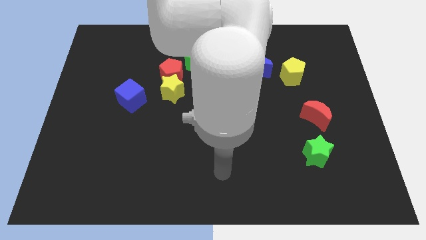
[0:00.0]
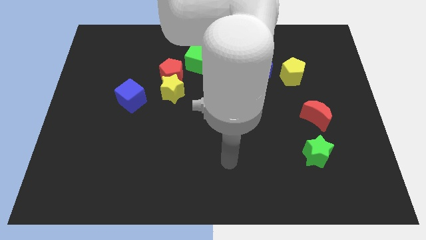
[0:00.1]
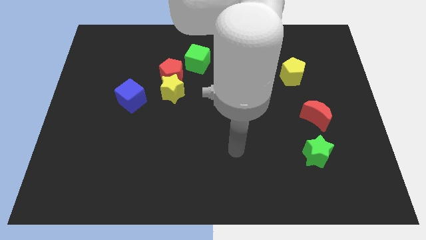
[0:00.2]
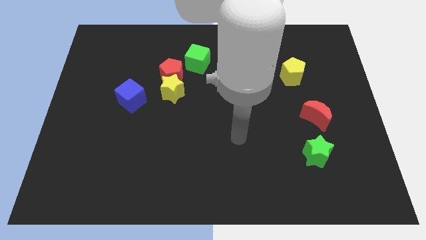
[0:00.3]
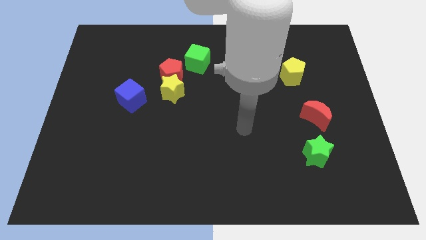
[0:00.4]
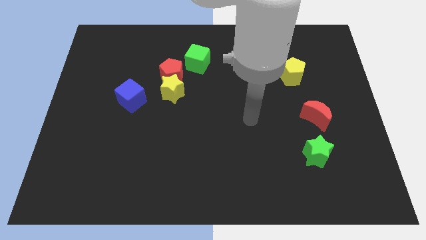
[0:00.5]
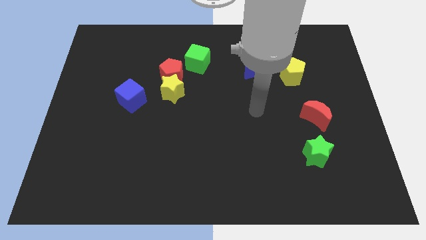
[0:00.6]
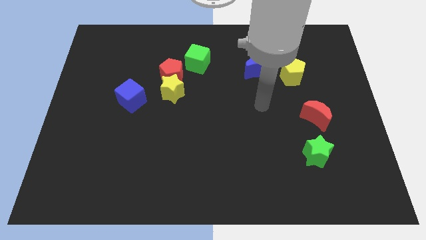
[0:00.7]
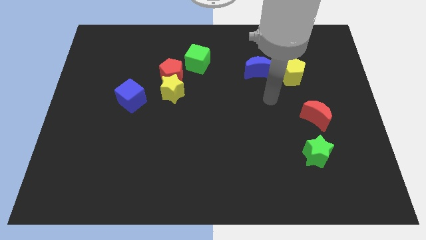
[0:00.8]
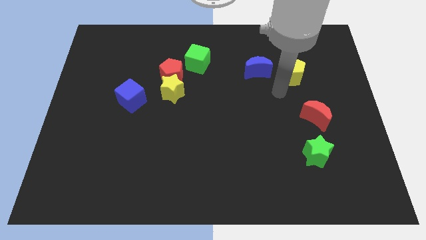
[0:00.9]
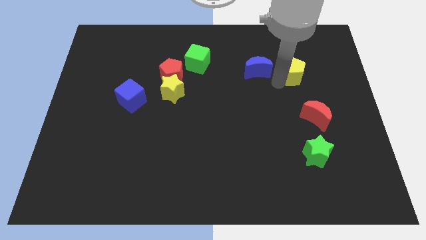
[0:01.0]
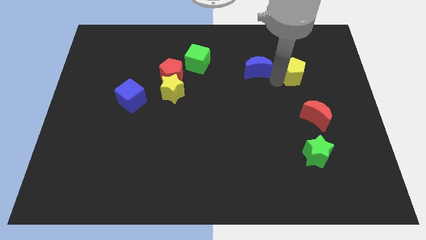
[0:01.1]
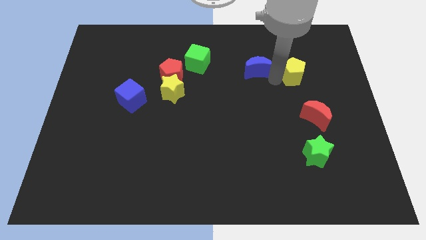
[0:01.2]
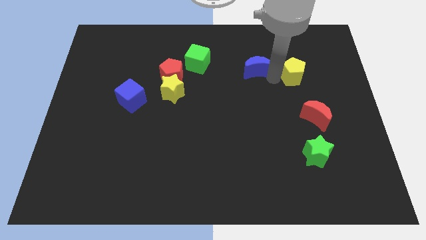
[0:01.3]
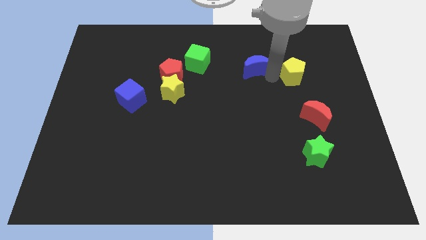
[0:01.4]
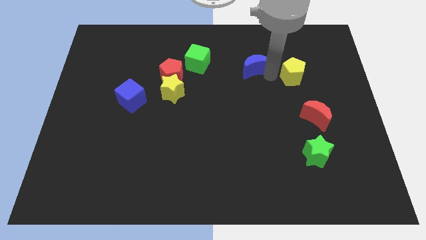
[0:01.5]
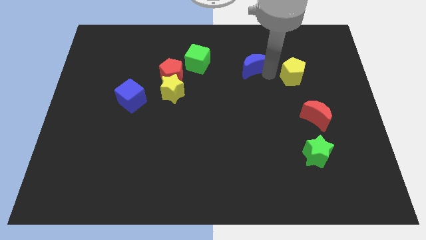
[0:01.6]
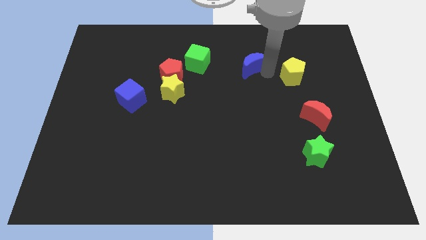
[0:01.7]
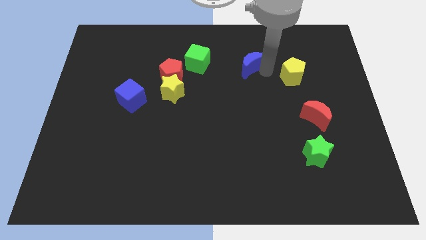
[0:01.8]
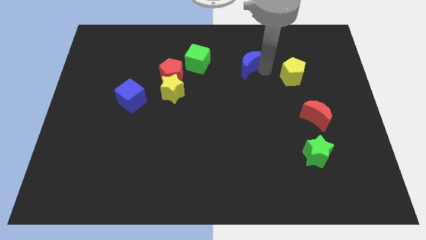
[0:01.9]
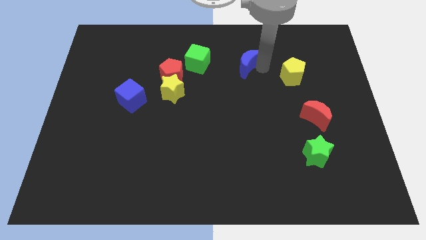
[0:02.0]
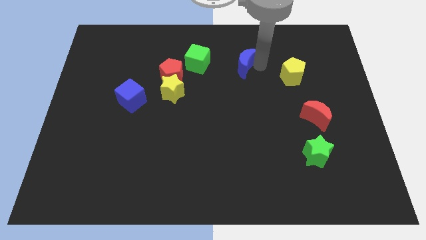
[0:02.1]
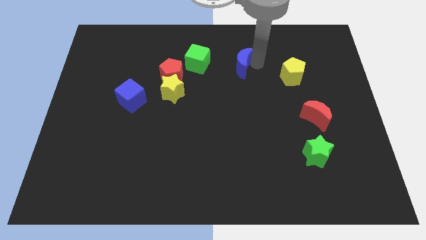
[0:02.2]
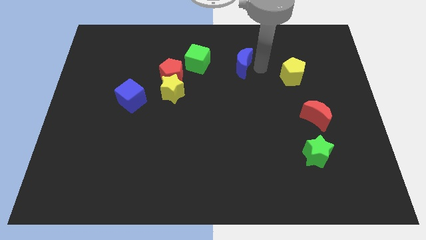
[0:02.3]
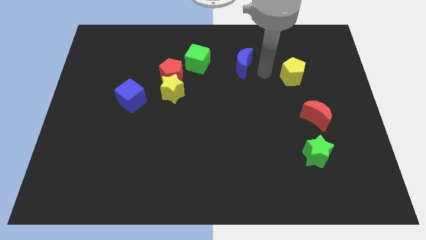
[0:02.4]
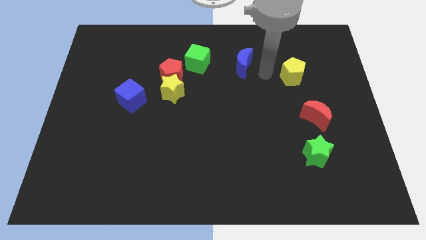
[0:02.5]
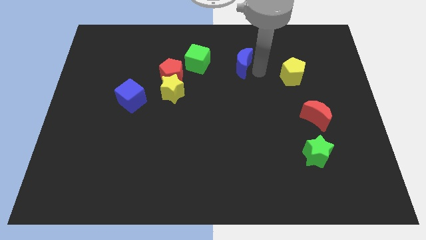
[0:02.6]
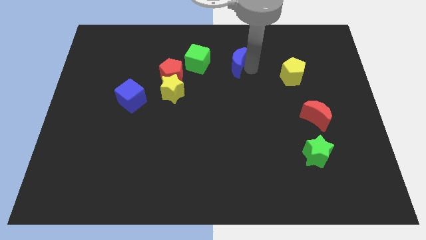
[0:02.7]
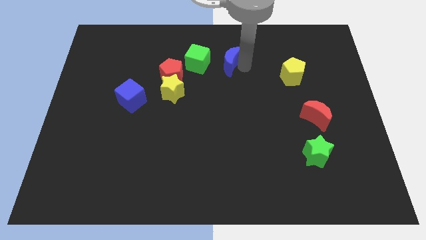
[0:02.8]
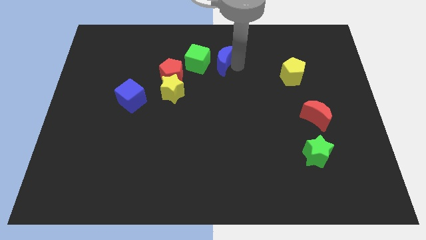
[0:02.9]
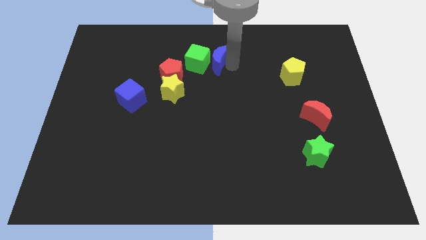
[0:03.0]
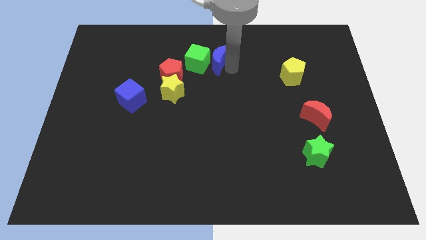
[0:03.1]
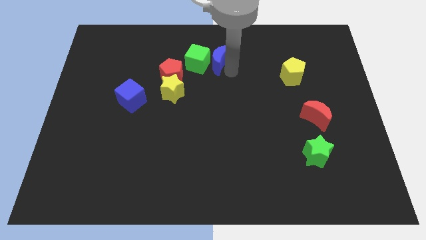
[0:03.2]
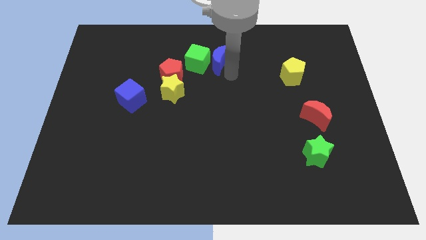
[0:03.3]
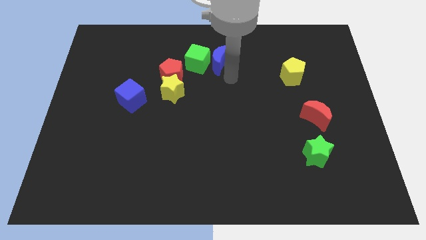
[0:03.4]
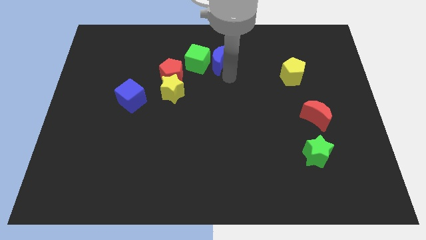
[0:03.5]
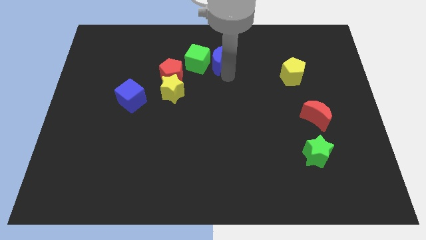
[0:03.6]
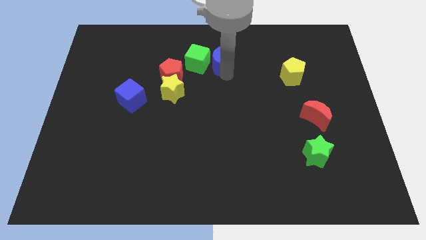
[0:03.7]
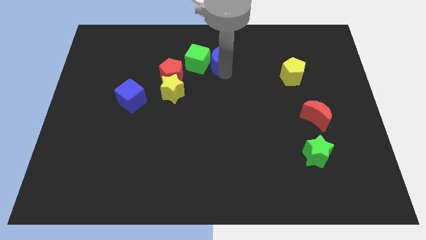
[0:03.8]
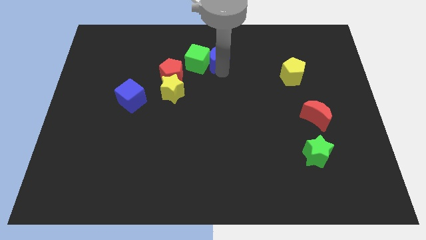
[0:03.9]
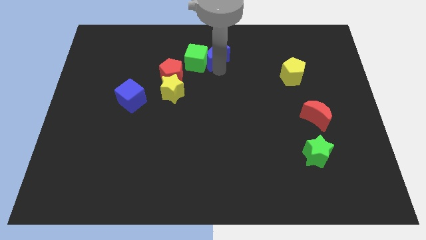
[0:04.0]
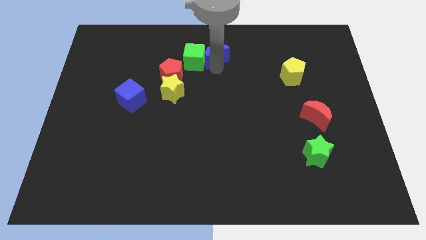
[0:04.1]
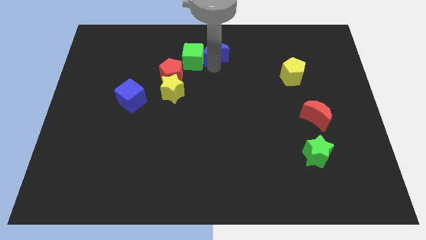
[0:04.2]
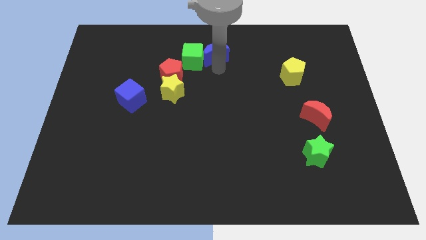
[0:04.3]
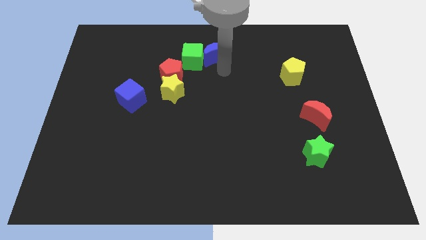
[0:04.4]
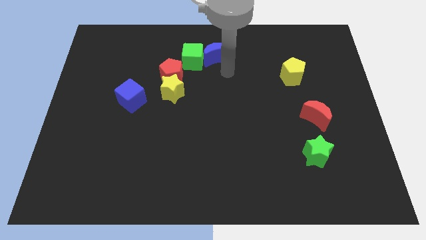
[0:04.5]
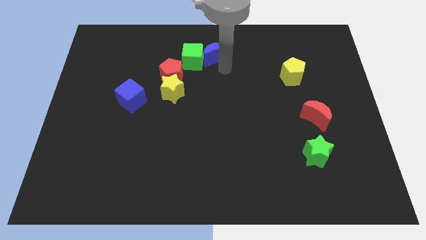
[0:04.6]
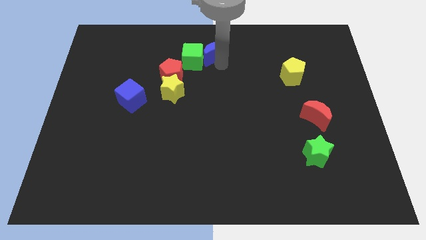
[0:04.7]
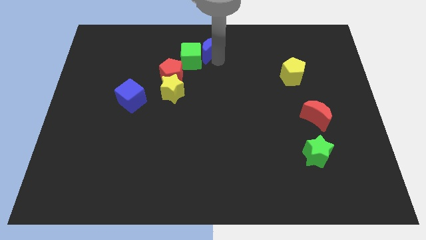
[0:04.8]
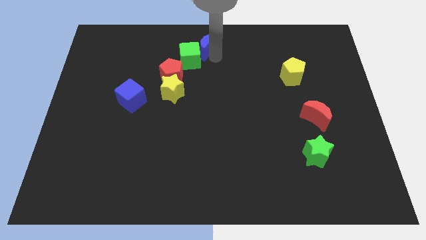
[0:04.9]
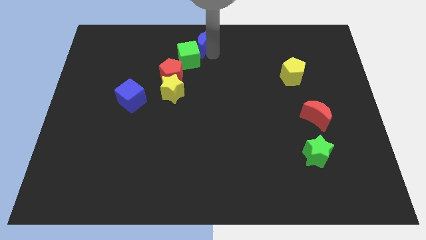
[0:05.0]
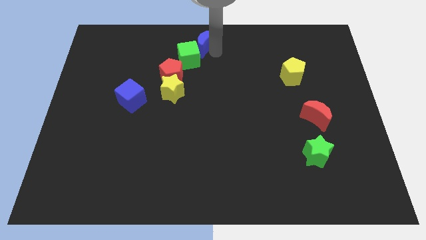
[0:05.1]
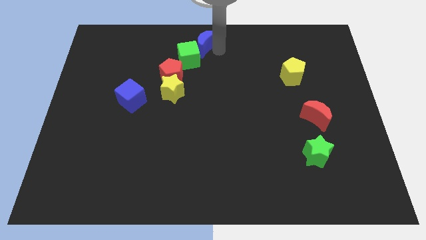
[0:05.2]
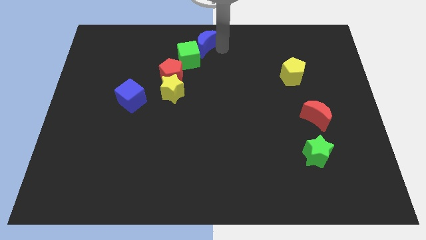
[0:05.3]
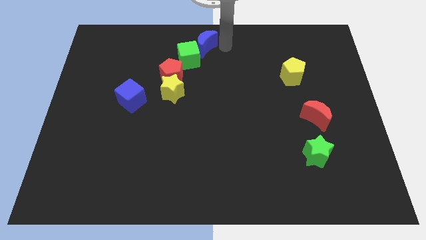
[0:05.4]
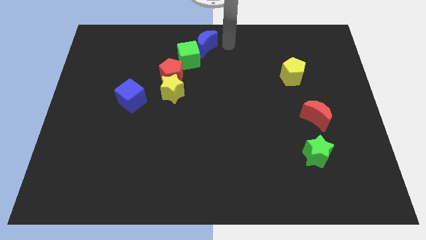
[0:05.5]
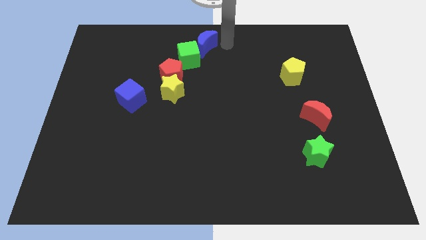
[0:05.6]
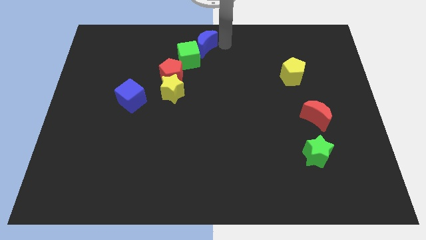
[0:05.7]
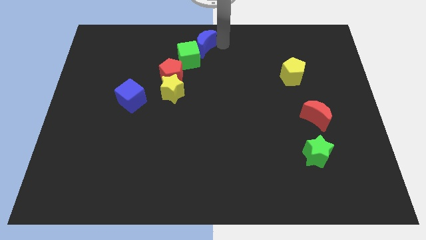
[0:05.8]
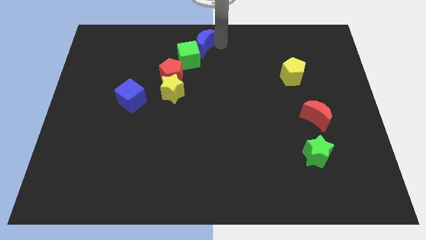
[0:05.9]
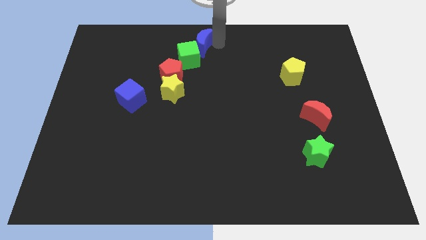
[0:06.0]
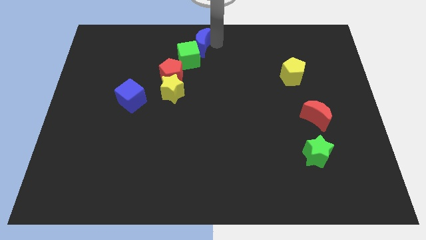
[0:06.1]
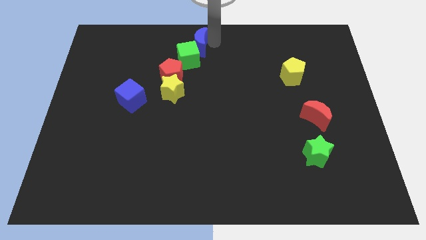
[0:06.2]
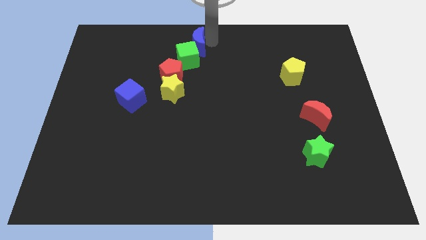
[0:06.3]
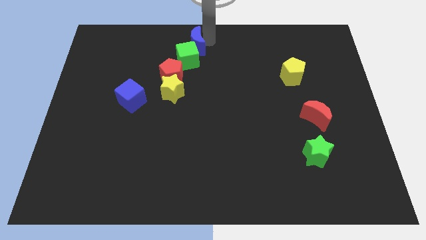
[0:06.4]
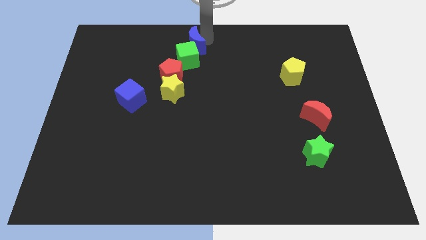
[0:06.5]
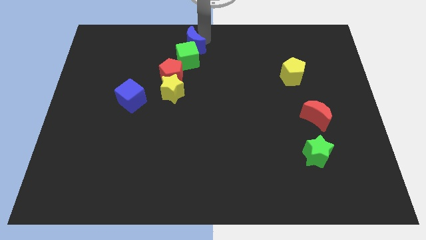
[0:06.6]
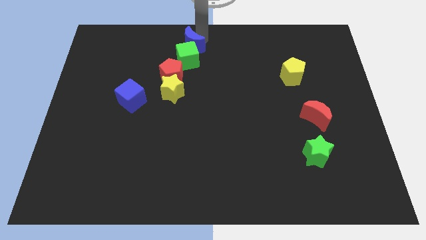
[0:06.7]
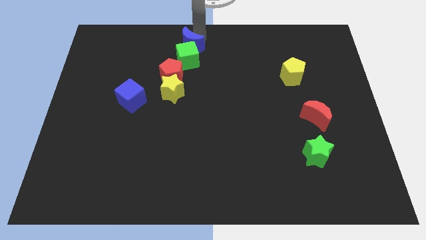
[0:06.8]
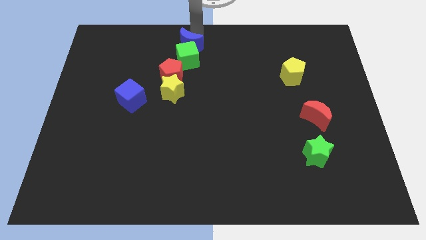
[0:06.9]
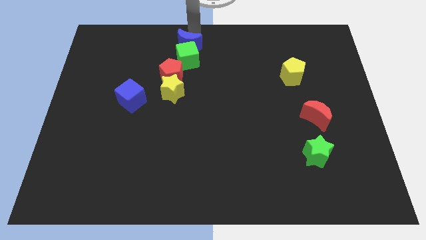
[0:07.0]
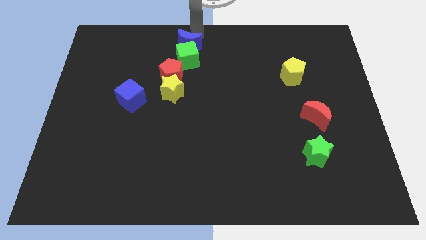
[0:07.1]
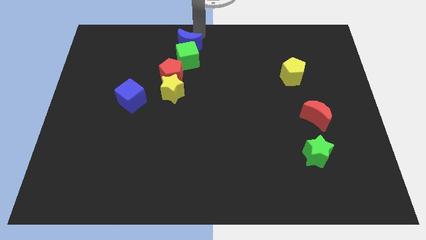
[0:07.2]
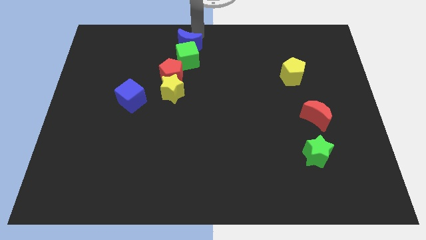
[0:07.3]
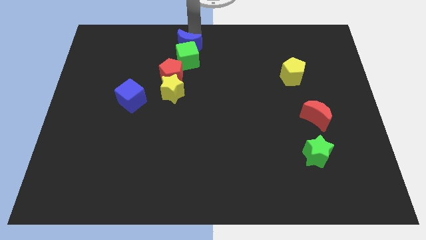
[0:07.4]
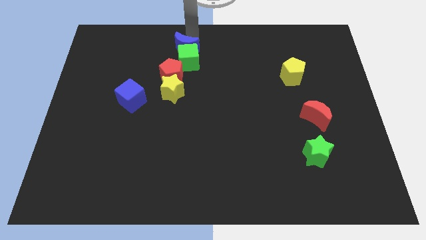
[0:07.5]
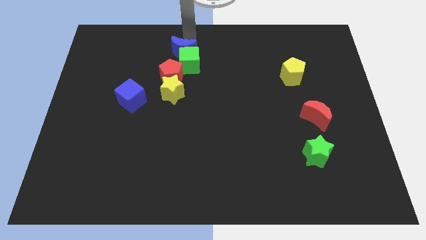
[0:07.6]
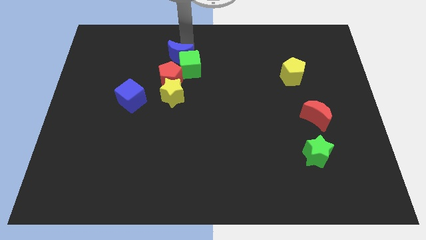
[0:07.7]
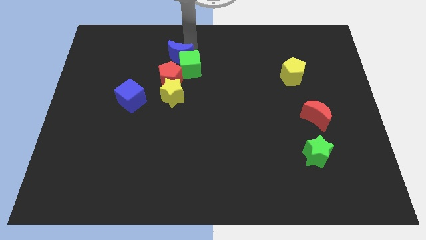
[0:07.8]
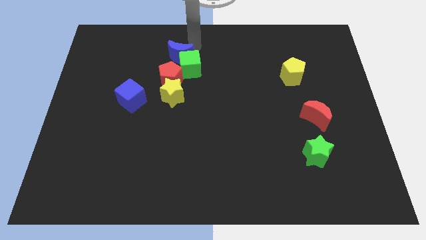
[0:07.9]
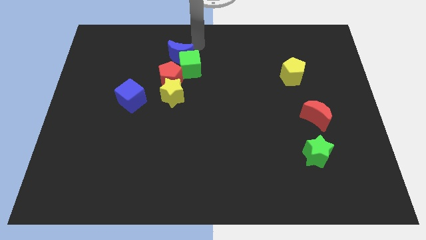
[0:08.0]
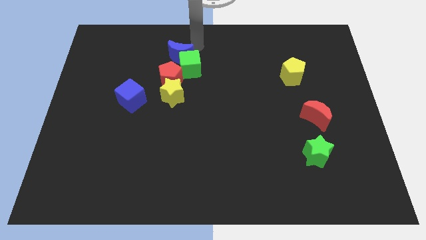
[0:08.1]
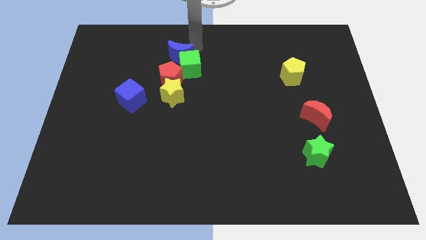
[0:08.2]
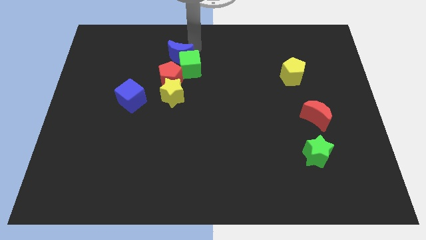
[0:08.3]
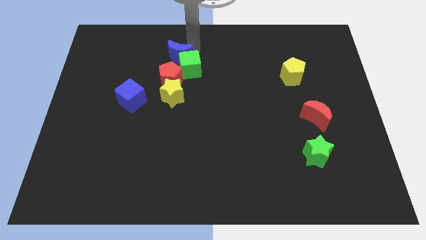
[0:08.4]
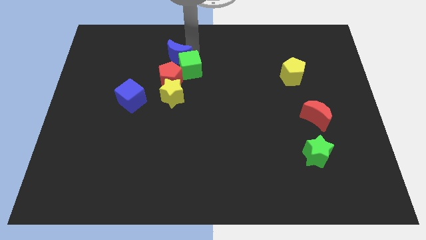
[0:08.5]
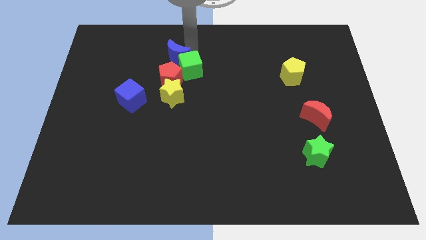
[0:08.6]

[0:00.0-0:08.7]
push the blue moon to the left
